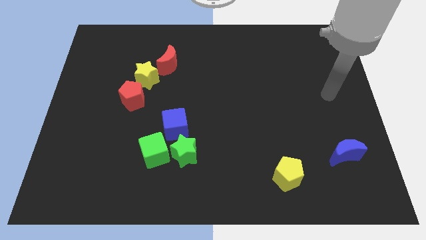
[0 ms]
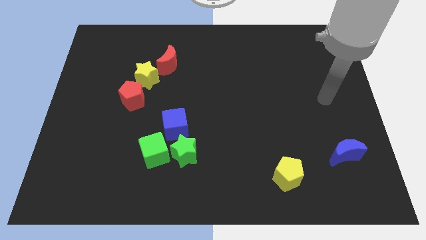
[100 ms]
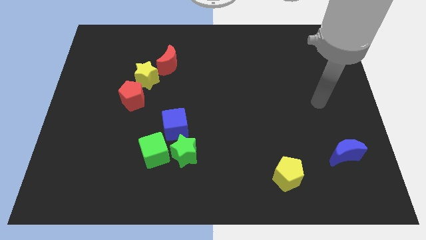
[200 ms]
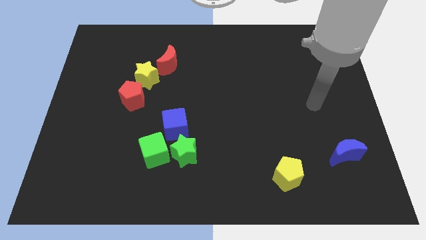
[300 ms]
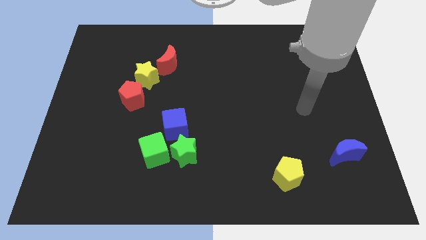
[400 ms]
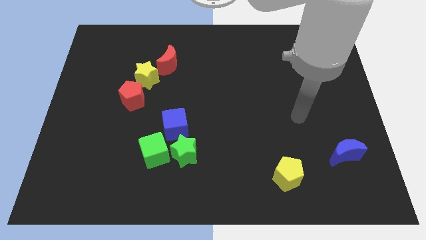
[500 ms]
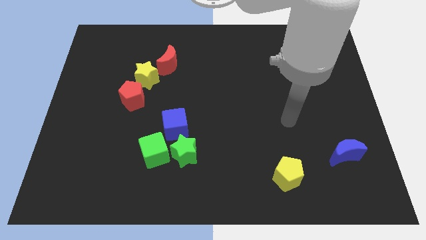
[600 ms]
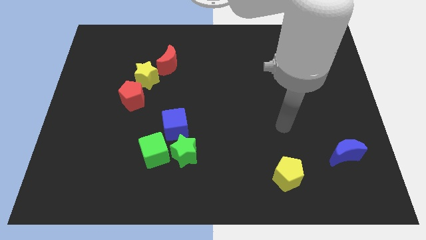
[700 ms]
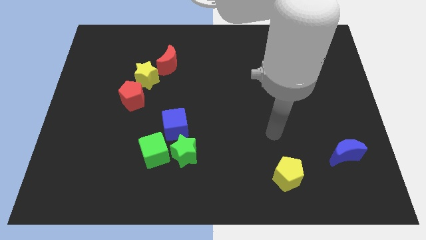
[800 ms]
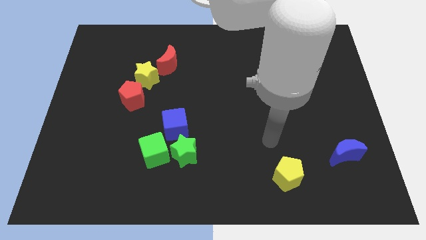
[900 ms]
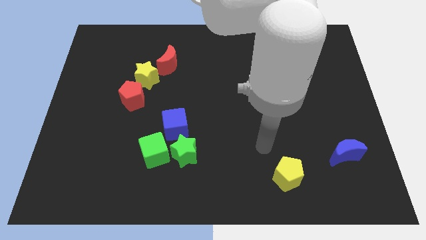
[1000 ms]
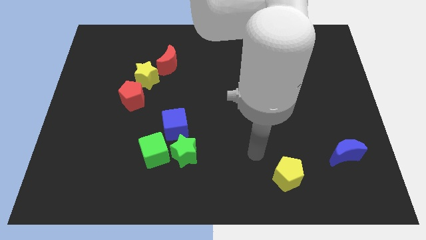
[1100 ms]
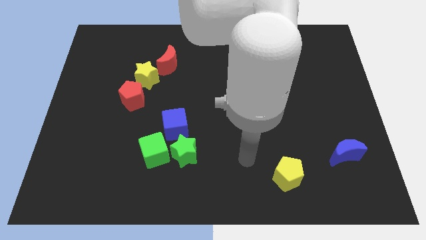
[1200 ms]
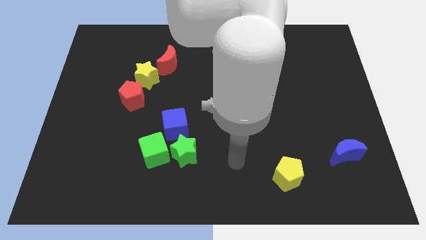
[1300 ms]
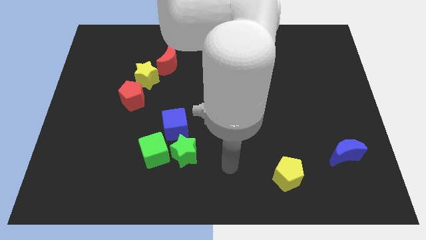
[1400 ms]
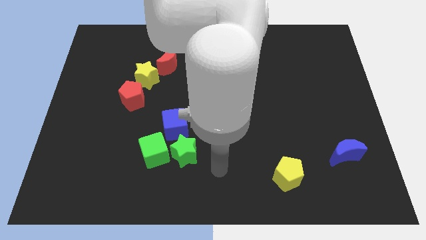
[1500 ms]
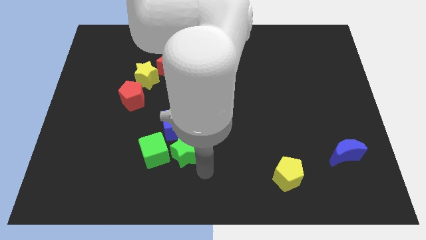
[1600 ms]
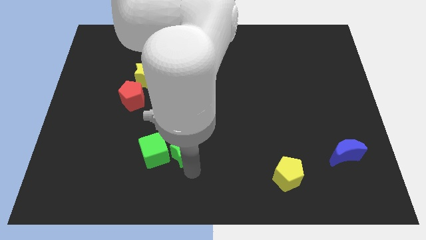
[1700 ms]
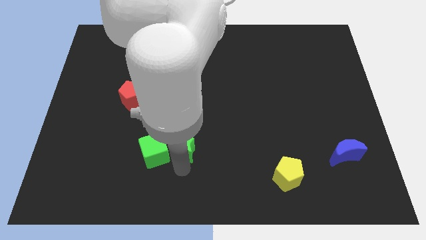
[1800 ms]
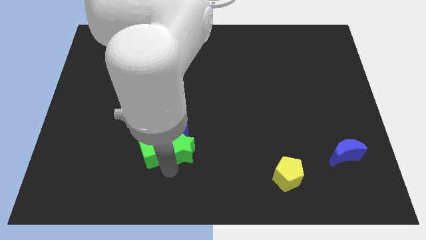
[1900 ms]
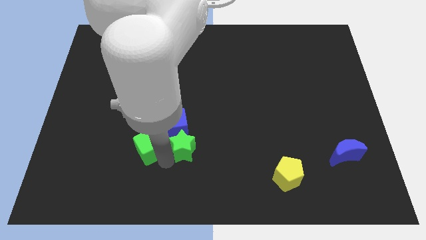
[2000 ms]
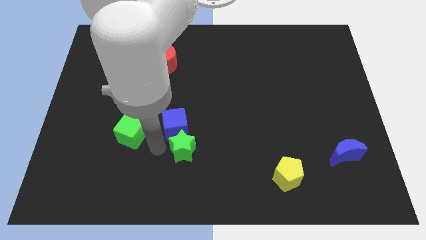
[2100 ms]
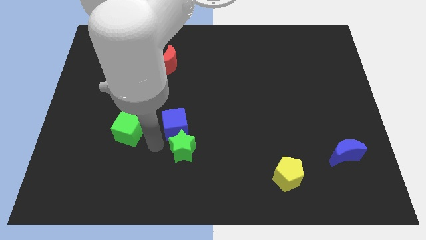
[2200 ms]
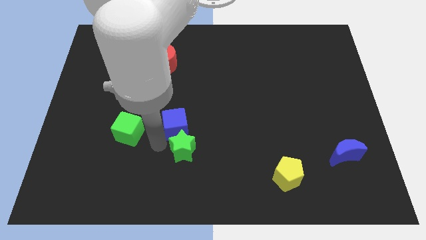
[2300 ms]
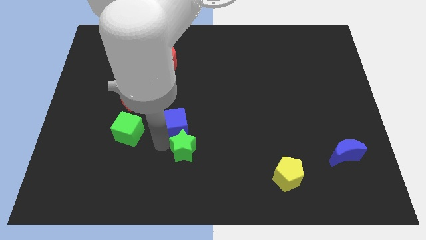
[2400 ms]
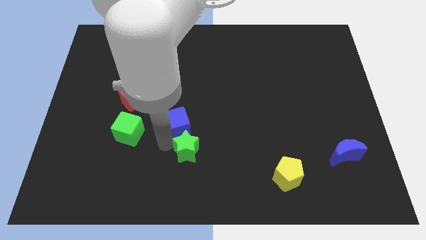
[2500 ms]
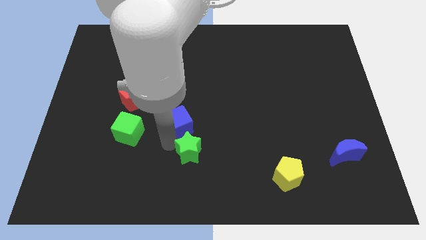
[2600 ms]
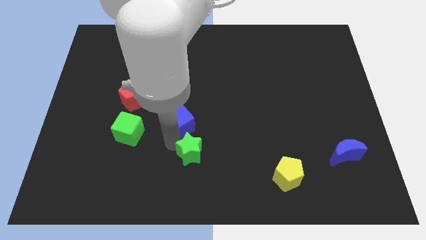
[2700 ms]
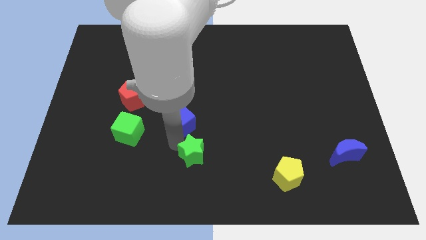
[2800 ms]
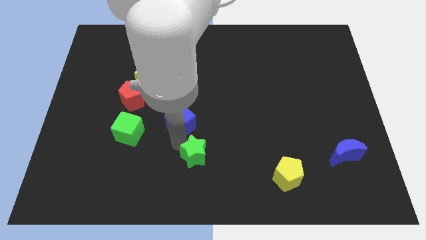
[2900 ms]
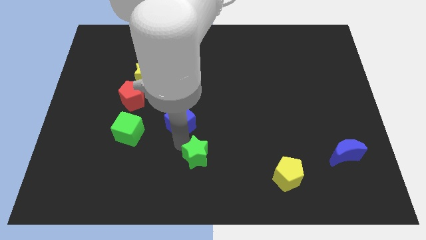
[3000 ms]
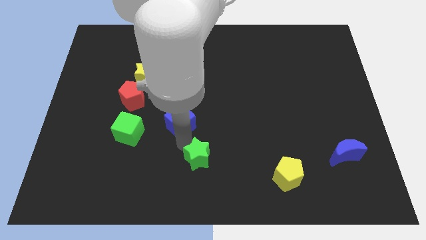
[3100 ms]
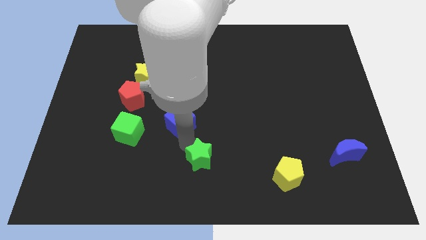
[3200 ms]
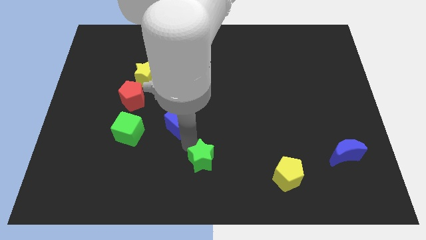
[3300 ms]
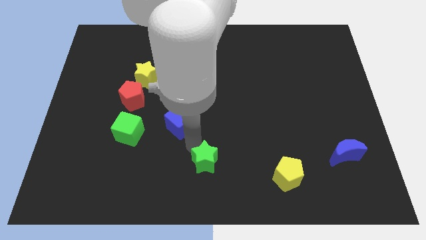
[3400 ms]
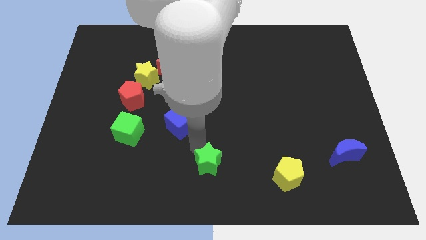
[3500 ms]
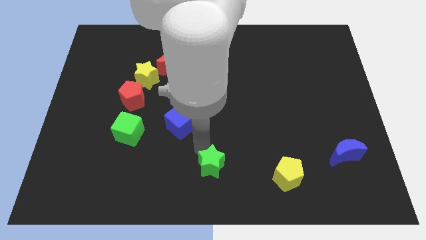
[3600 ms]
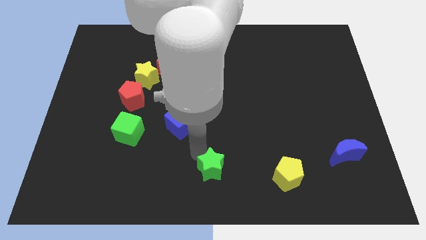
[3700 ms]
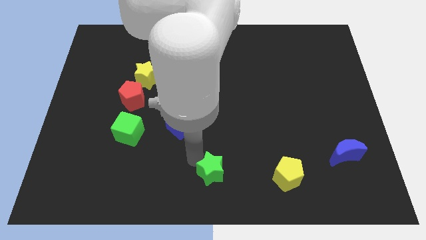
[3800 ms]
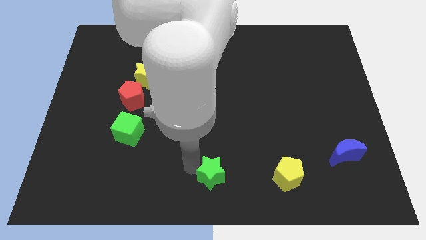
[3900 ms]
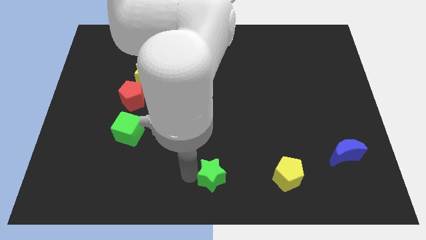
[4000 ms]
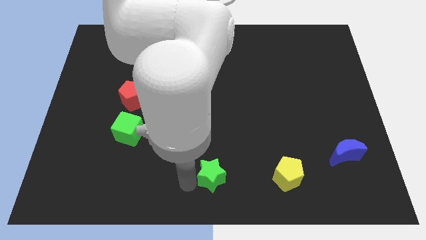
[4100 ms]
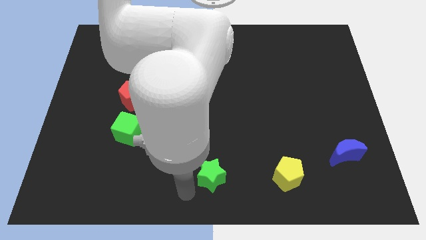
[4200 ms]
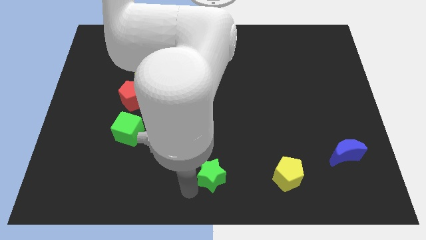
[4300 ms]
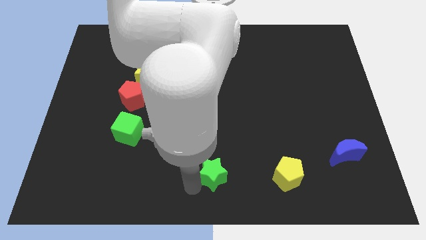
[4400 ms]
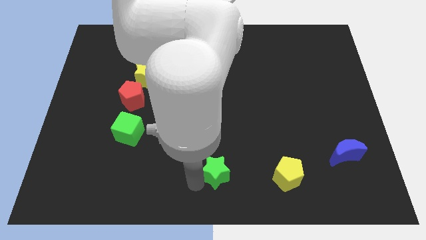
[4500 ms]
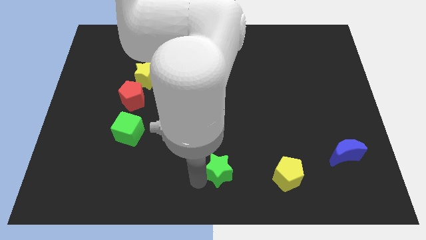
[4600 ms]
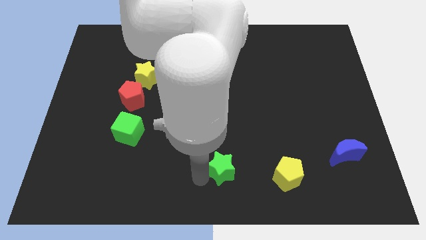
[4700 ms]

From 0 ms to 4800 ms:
push the green star right a bit

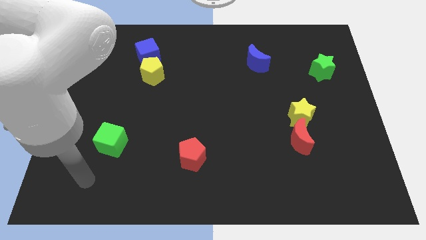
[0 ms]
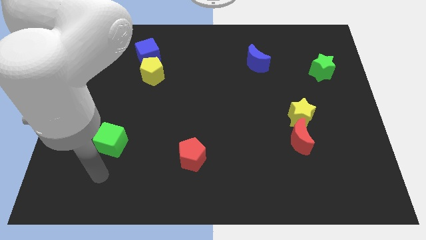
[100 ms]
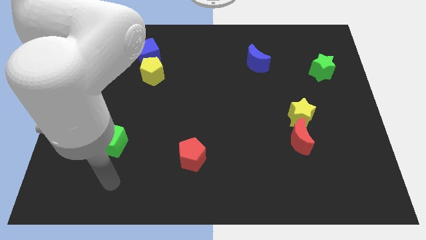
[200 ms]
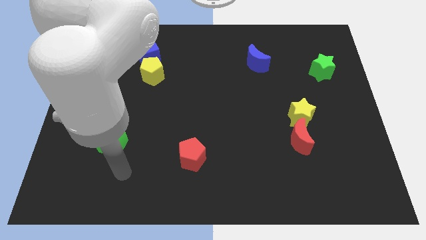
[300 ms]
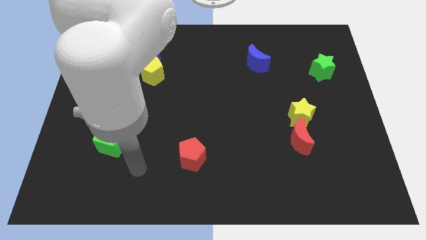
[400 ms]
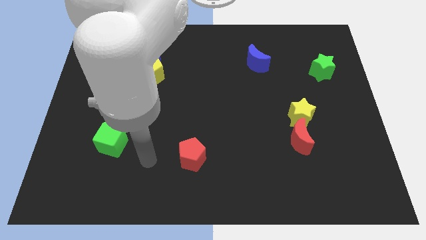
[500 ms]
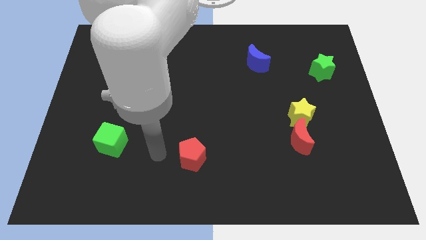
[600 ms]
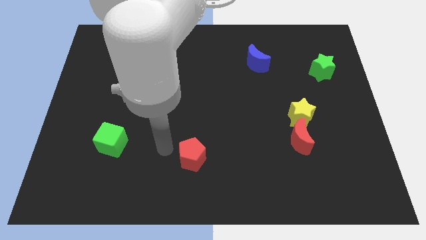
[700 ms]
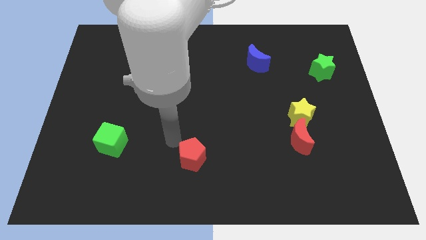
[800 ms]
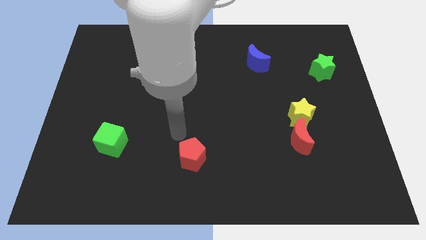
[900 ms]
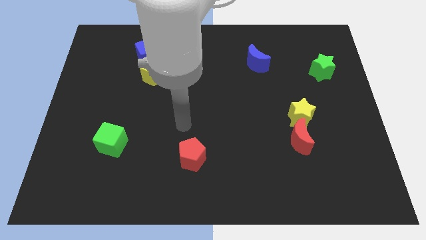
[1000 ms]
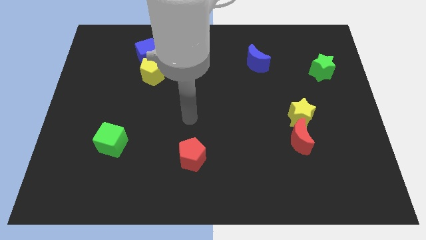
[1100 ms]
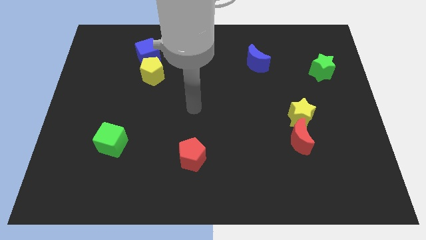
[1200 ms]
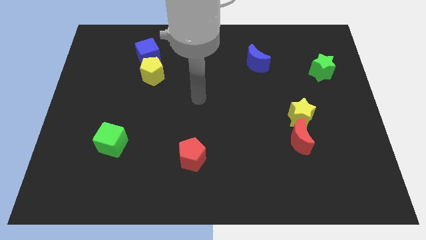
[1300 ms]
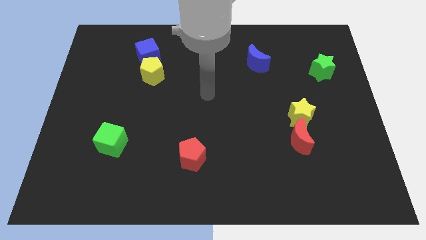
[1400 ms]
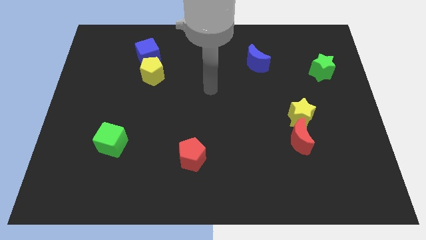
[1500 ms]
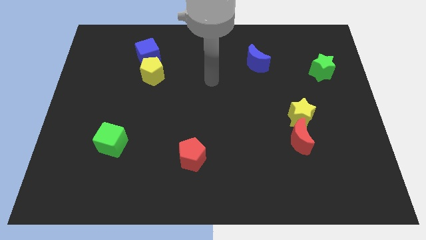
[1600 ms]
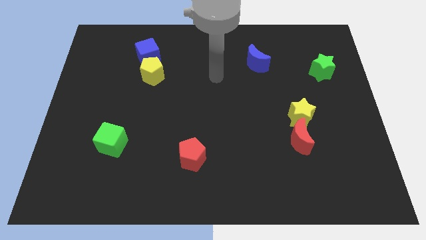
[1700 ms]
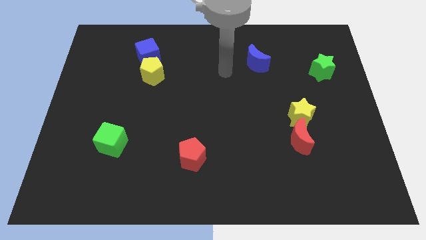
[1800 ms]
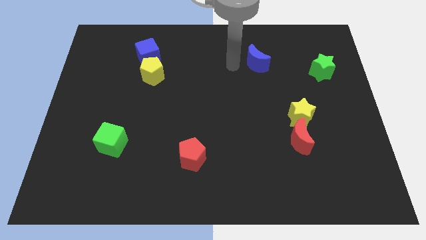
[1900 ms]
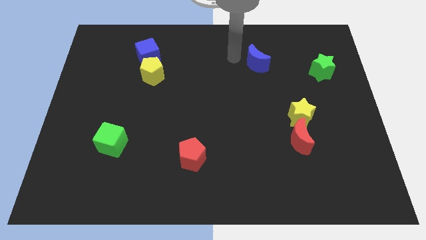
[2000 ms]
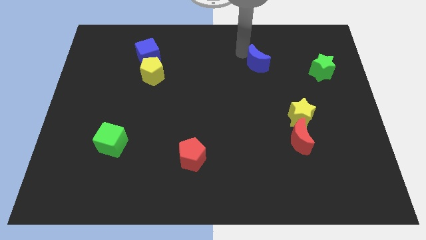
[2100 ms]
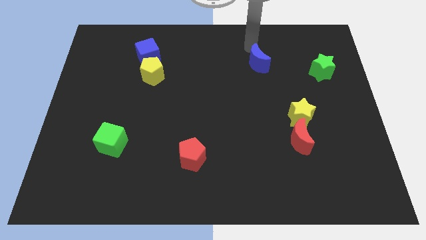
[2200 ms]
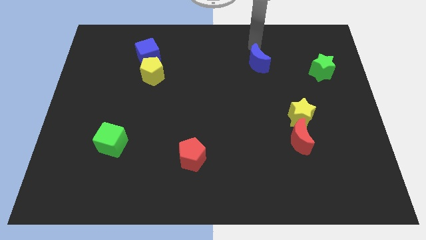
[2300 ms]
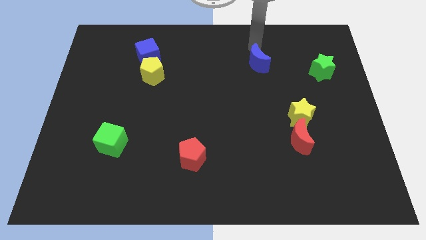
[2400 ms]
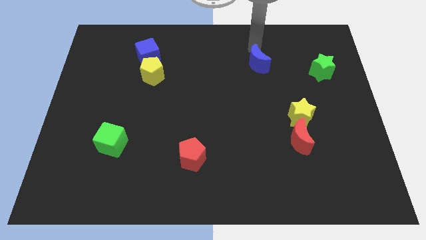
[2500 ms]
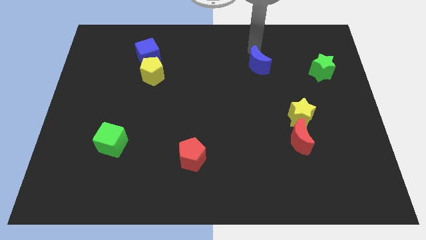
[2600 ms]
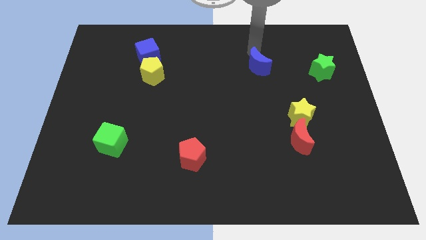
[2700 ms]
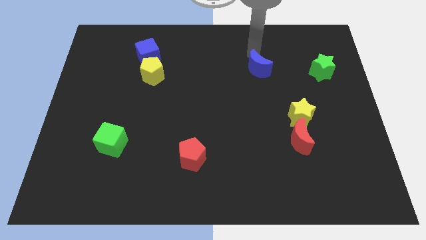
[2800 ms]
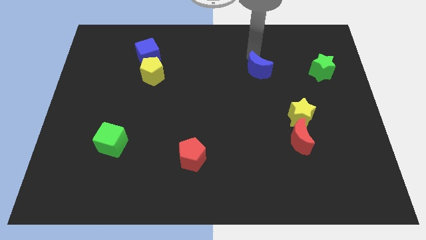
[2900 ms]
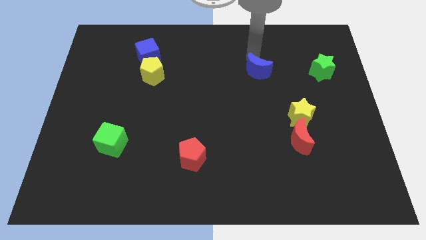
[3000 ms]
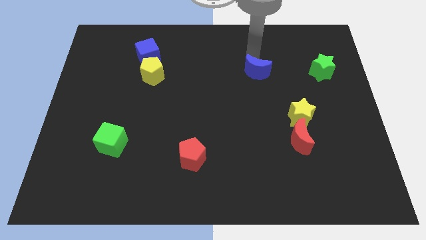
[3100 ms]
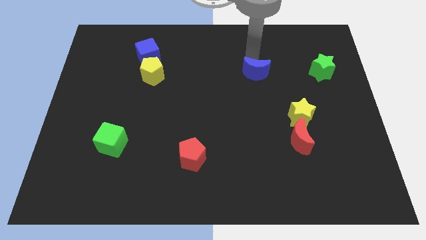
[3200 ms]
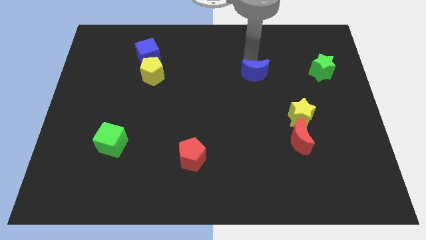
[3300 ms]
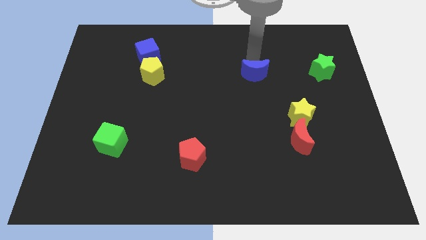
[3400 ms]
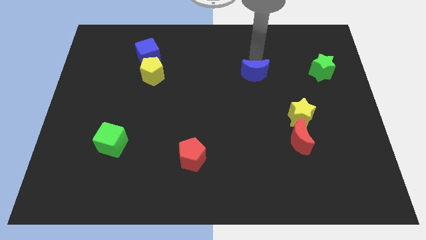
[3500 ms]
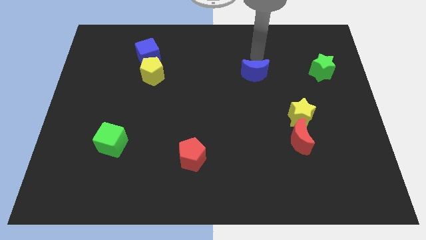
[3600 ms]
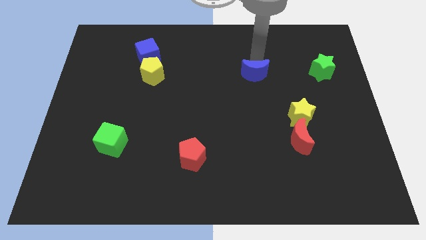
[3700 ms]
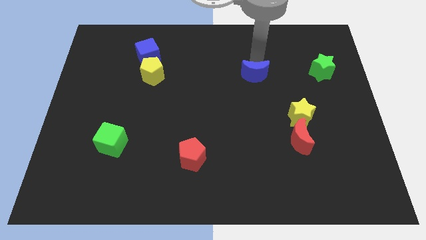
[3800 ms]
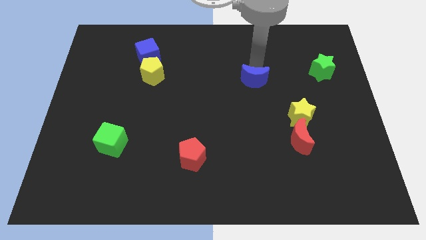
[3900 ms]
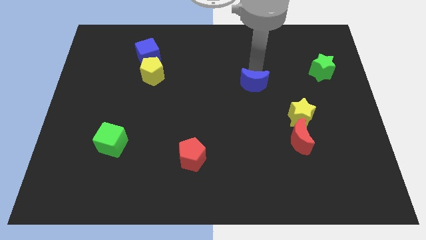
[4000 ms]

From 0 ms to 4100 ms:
slightly move the blue moon downwards
